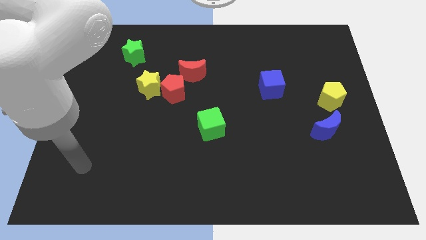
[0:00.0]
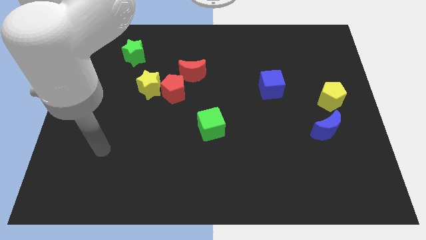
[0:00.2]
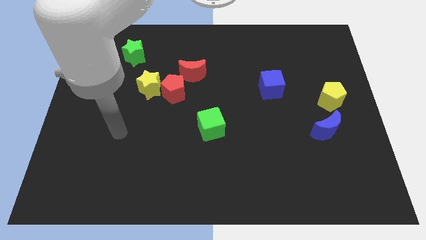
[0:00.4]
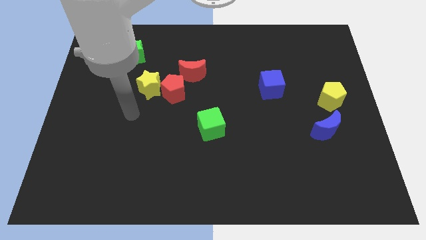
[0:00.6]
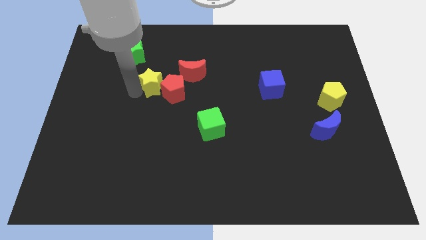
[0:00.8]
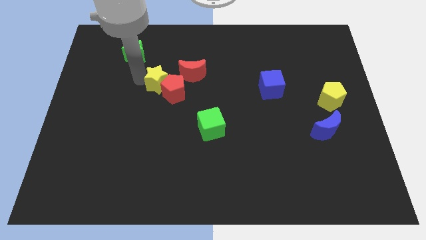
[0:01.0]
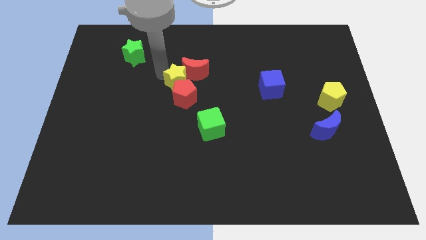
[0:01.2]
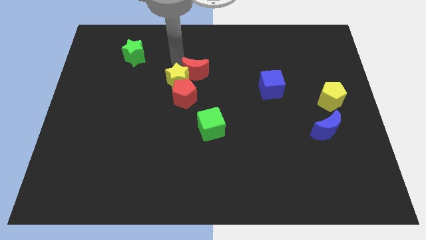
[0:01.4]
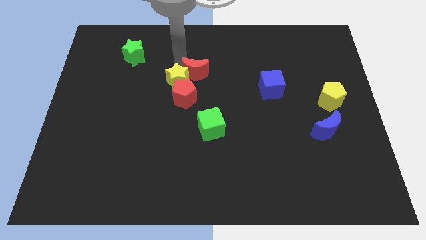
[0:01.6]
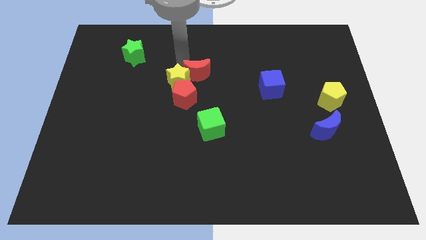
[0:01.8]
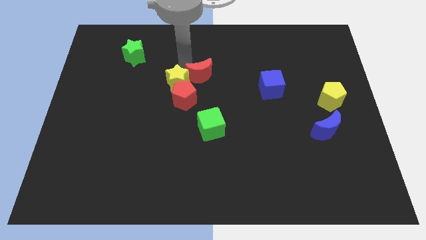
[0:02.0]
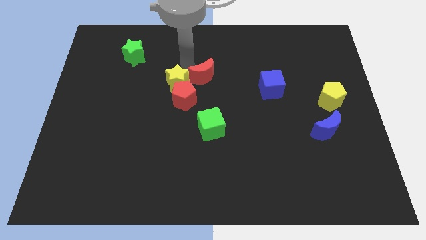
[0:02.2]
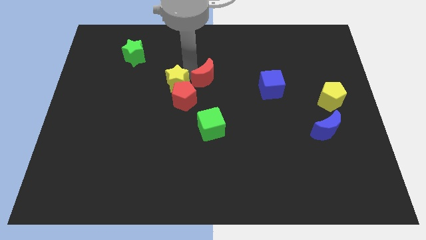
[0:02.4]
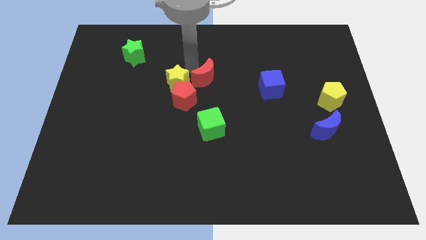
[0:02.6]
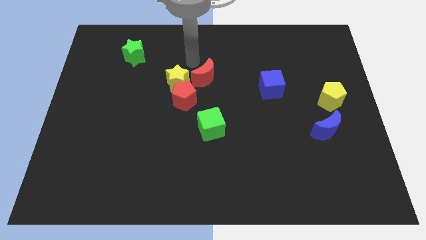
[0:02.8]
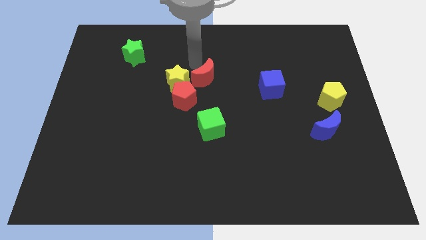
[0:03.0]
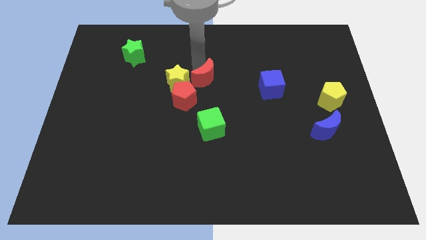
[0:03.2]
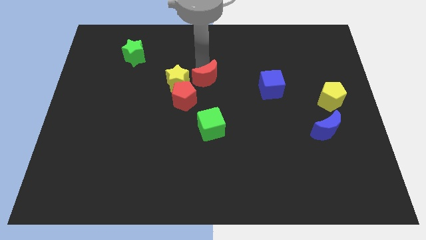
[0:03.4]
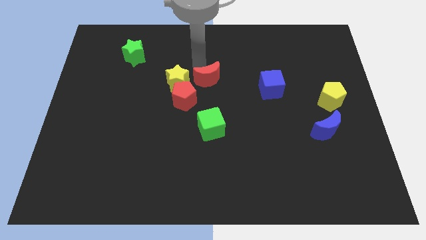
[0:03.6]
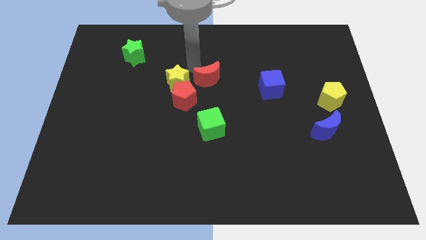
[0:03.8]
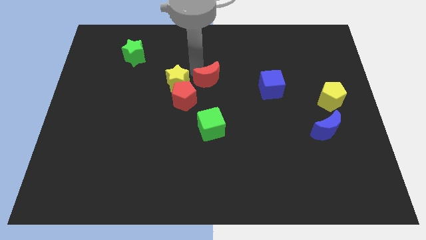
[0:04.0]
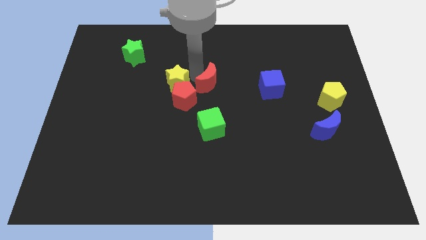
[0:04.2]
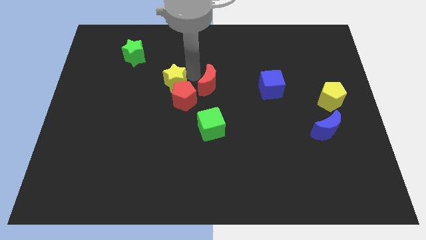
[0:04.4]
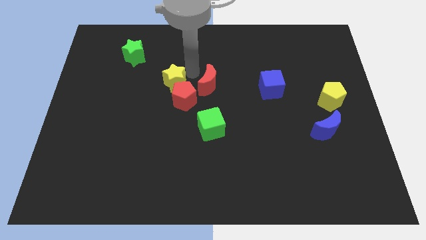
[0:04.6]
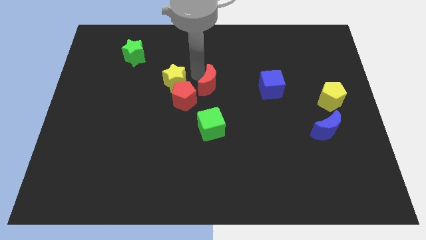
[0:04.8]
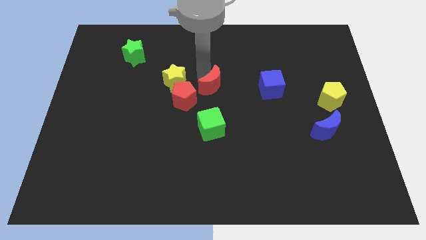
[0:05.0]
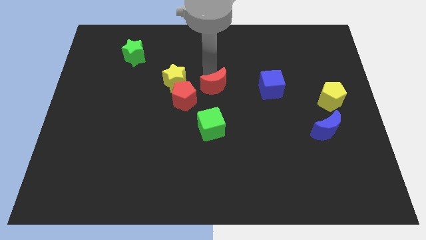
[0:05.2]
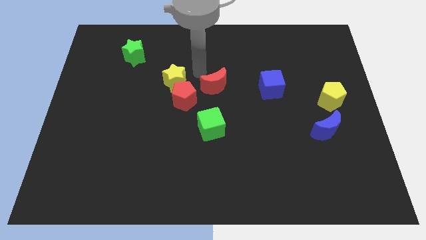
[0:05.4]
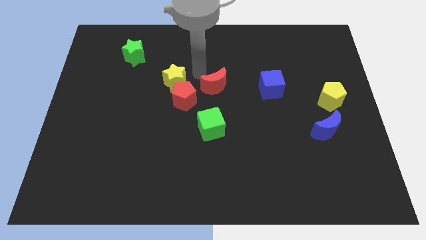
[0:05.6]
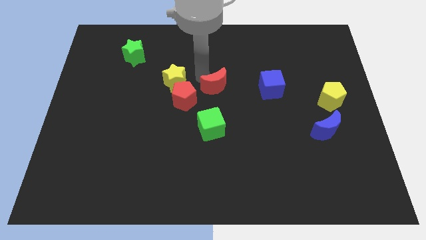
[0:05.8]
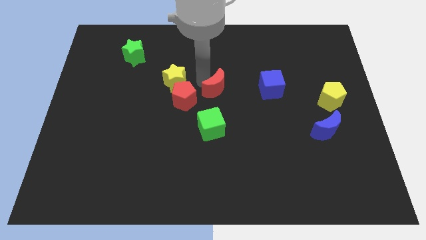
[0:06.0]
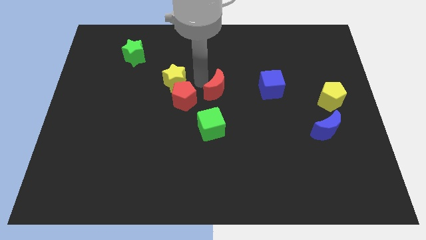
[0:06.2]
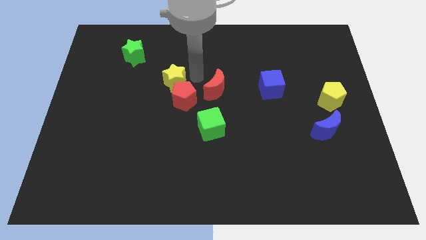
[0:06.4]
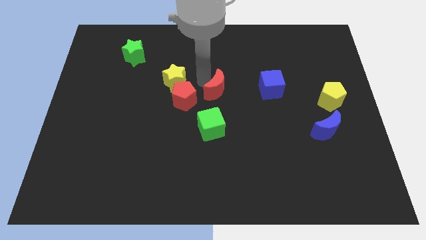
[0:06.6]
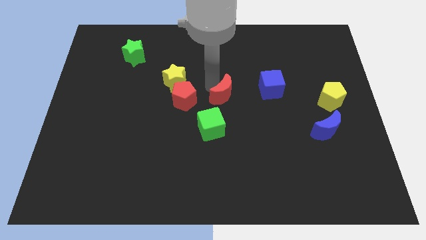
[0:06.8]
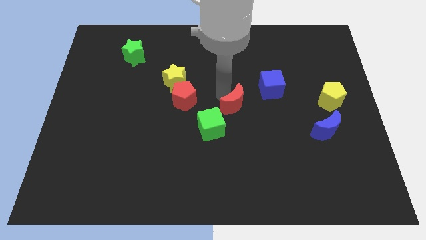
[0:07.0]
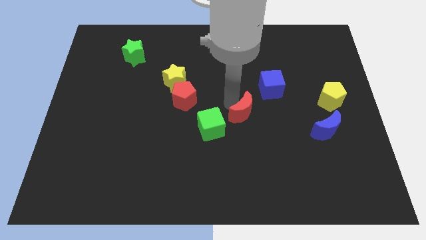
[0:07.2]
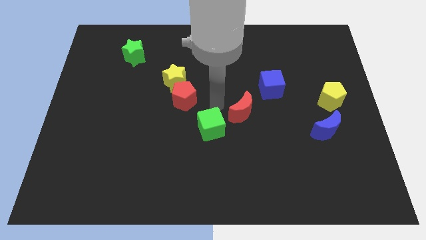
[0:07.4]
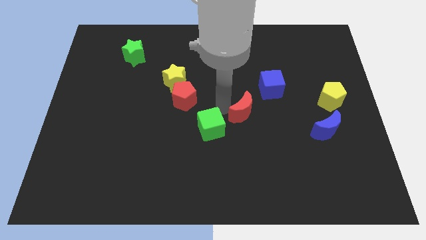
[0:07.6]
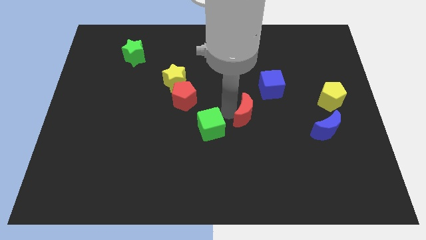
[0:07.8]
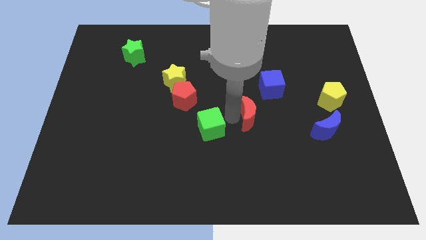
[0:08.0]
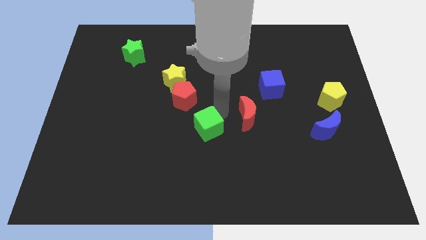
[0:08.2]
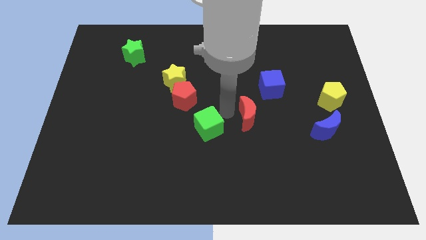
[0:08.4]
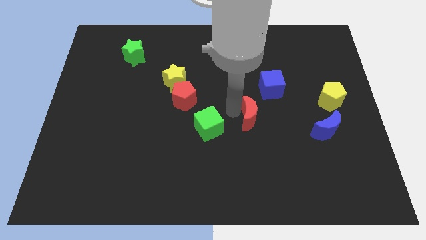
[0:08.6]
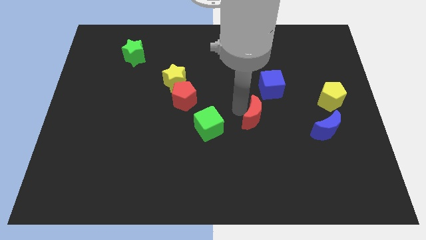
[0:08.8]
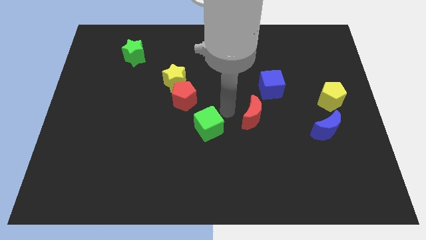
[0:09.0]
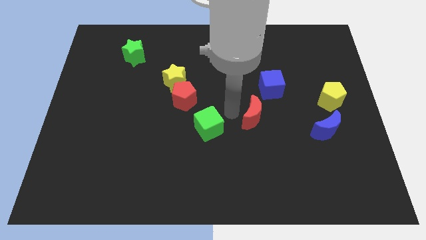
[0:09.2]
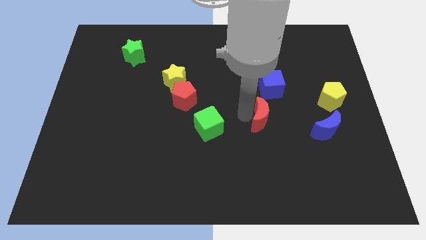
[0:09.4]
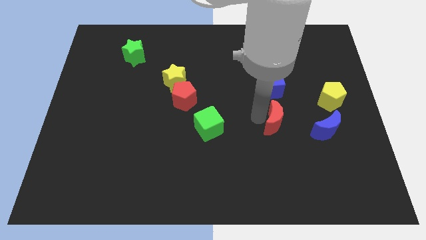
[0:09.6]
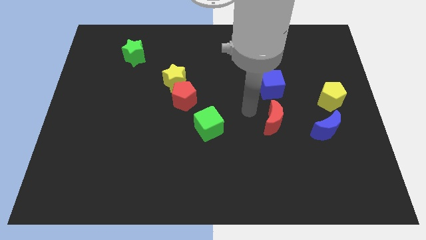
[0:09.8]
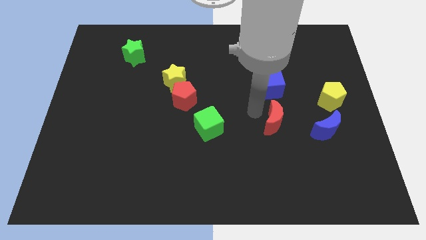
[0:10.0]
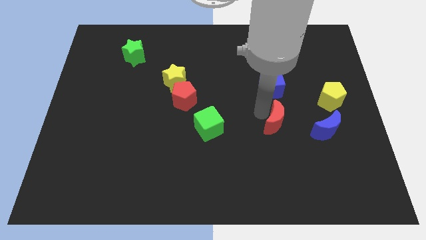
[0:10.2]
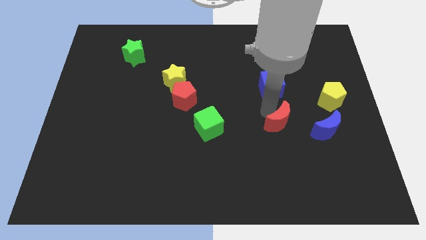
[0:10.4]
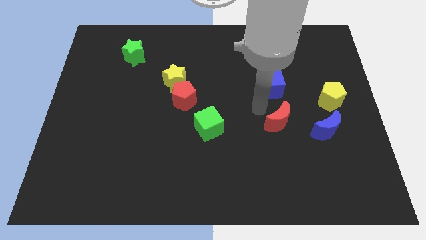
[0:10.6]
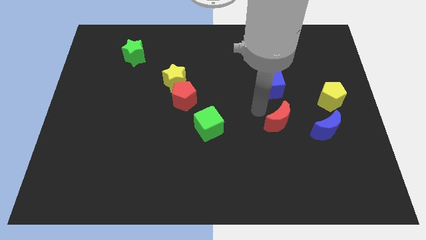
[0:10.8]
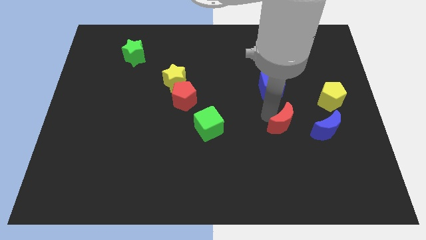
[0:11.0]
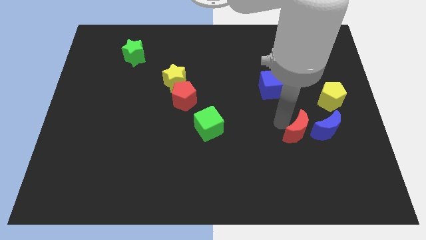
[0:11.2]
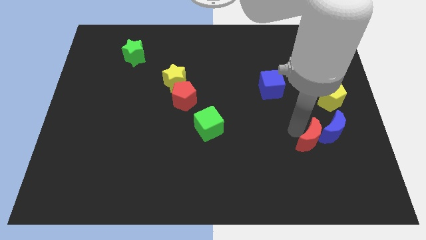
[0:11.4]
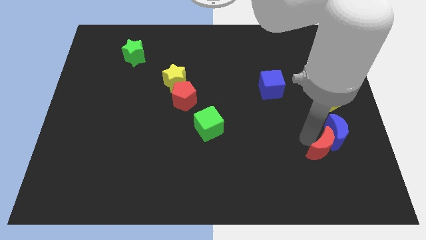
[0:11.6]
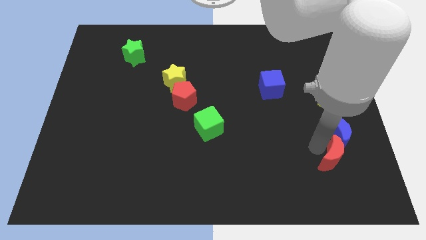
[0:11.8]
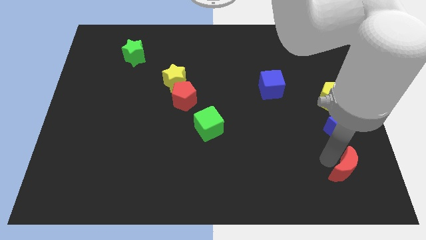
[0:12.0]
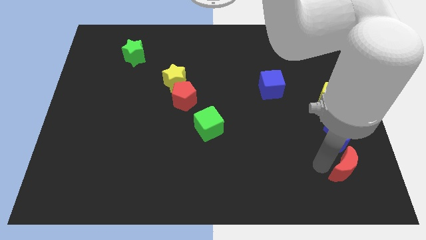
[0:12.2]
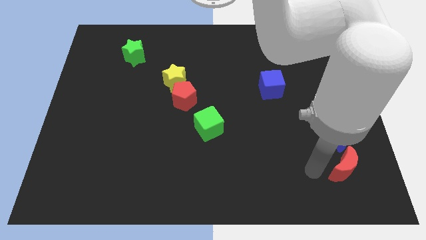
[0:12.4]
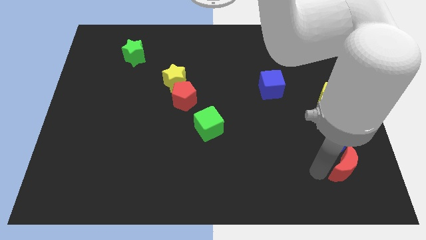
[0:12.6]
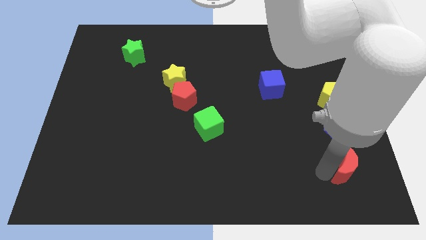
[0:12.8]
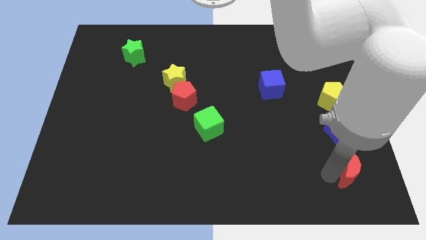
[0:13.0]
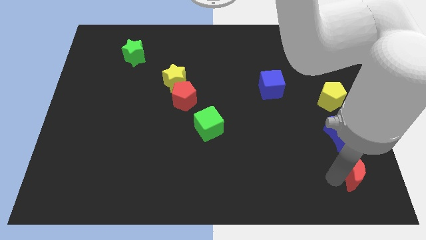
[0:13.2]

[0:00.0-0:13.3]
push the red moon to the bottom right

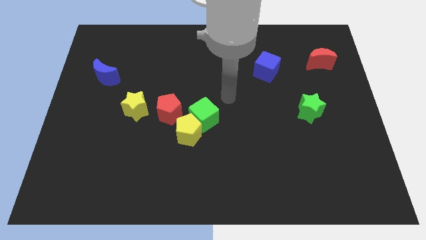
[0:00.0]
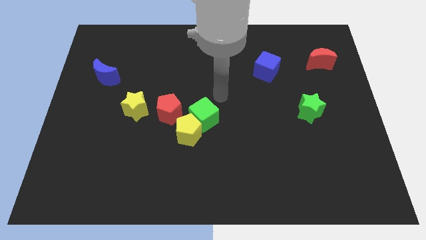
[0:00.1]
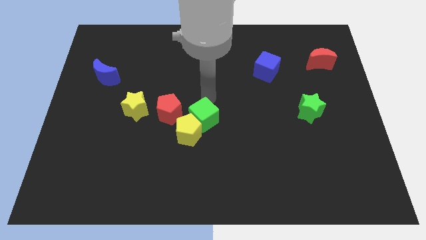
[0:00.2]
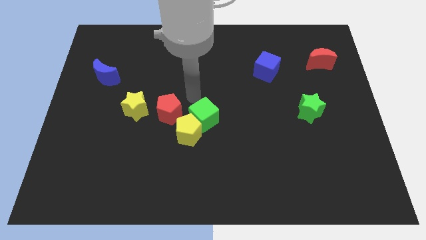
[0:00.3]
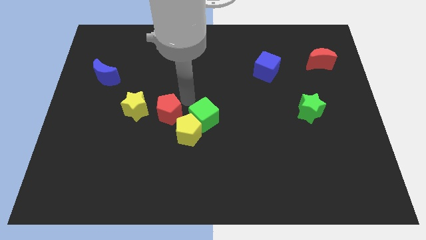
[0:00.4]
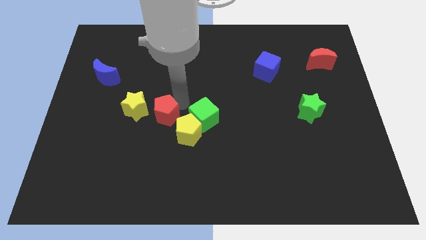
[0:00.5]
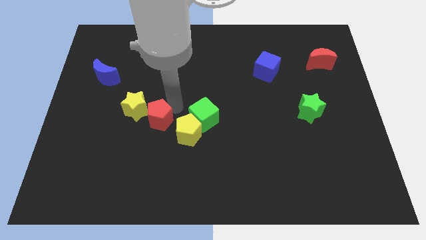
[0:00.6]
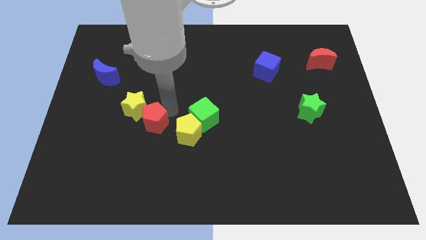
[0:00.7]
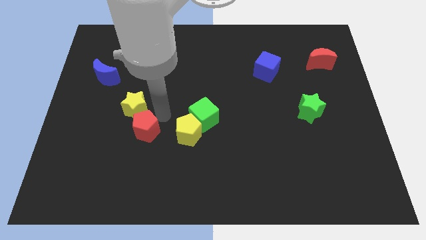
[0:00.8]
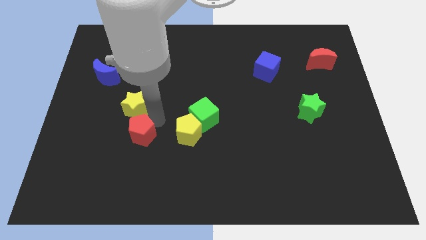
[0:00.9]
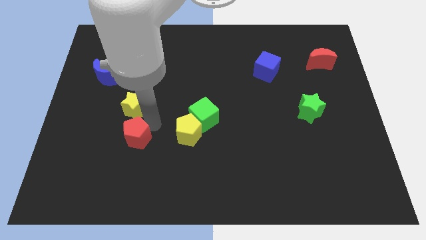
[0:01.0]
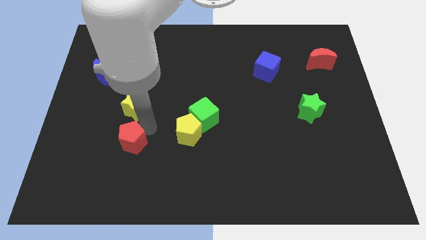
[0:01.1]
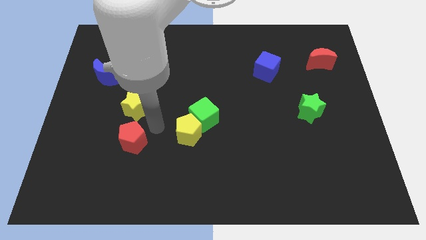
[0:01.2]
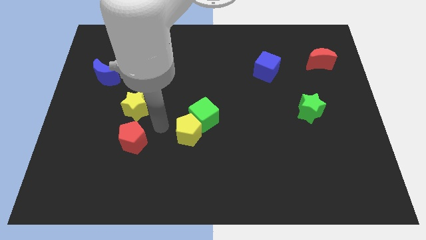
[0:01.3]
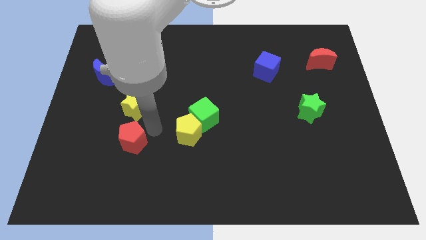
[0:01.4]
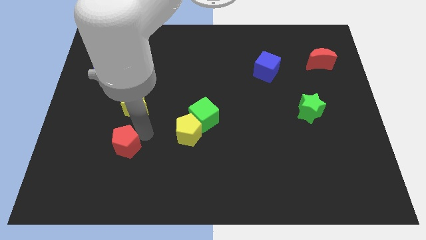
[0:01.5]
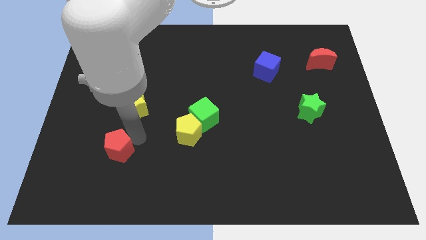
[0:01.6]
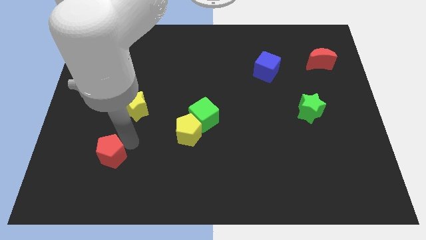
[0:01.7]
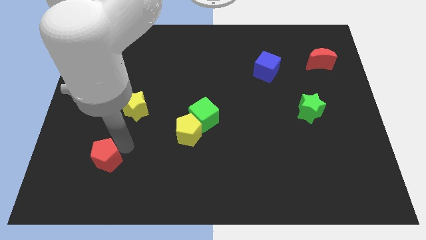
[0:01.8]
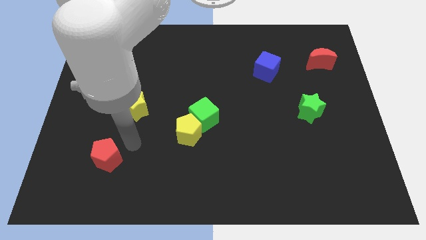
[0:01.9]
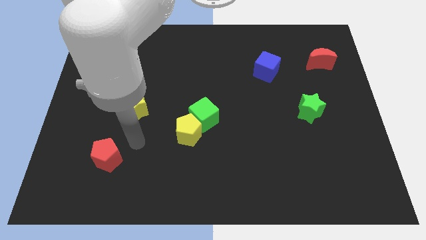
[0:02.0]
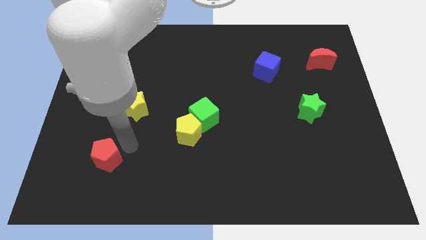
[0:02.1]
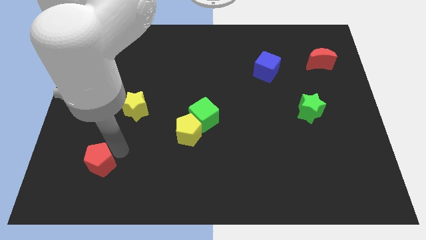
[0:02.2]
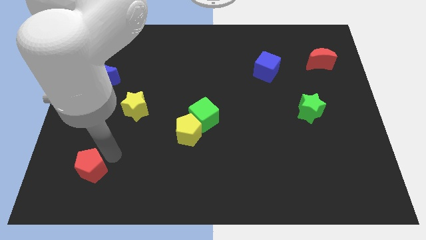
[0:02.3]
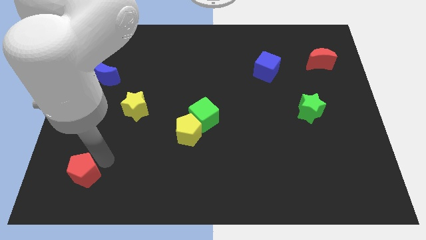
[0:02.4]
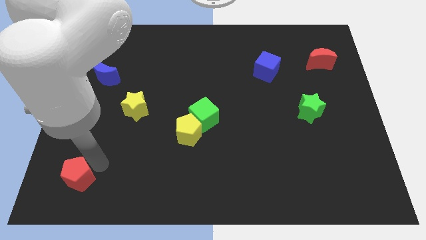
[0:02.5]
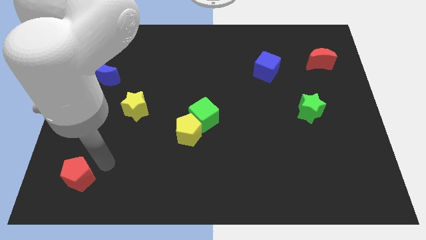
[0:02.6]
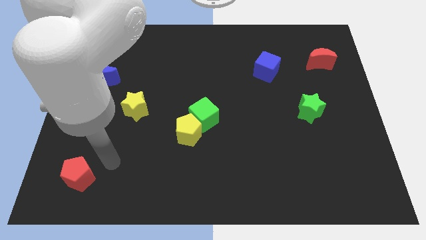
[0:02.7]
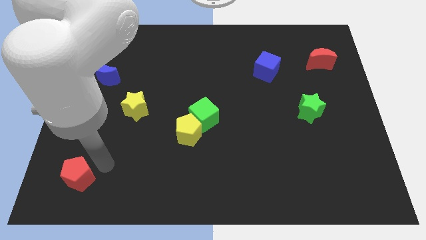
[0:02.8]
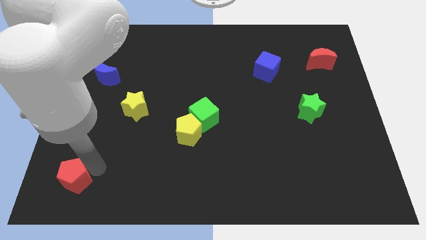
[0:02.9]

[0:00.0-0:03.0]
put the red pentagon to the bottom left corner
